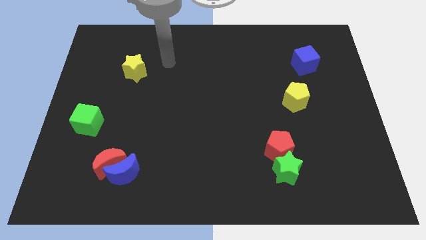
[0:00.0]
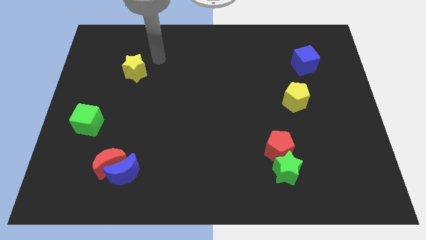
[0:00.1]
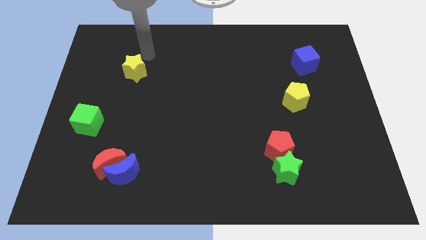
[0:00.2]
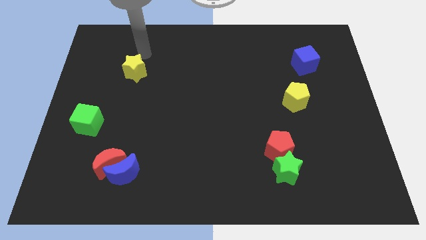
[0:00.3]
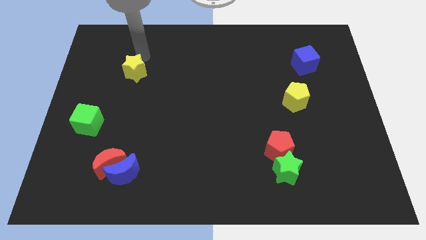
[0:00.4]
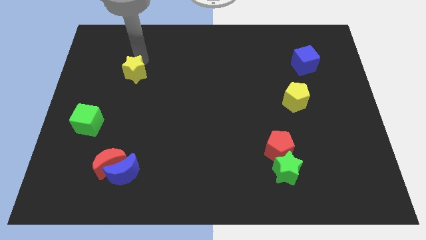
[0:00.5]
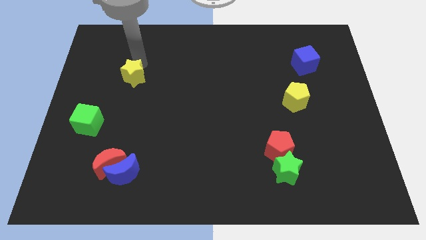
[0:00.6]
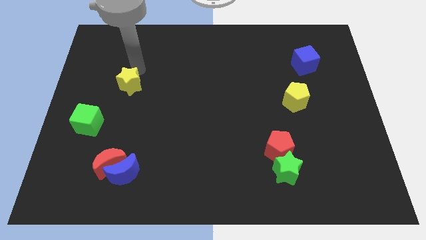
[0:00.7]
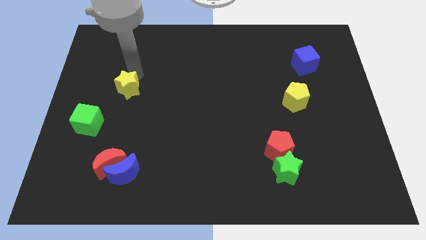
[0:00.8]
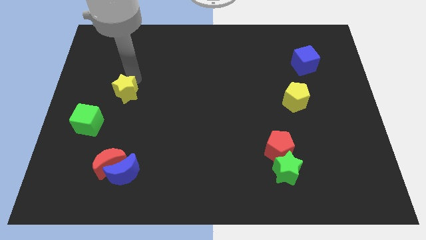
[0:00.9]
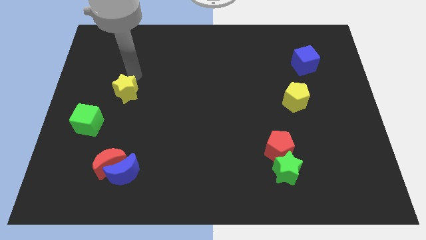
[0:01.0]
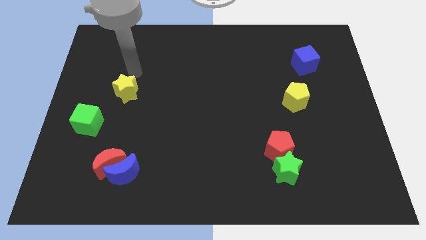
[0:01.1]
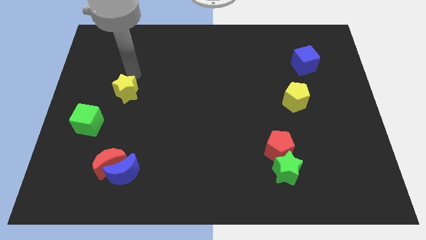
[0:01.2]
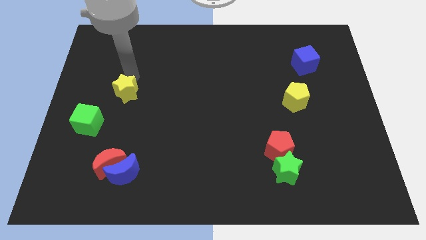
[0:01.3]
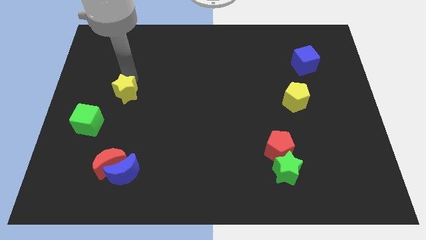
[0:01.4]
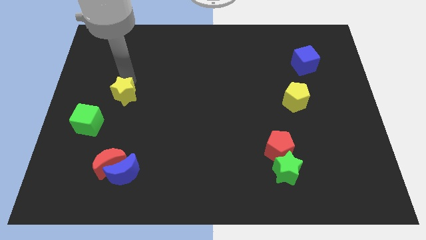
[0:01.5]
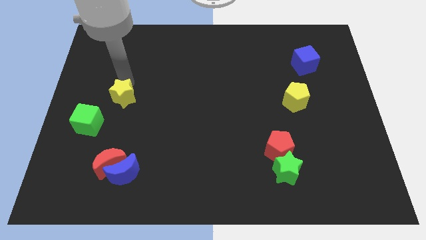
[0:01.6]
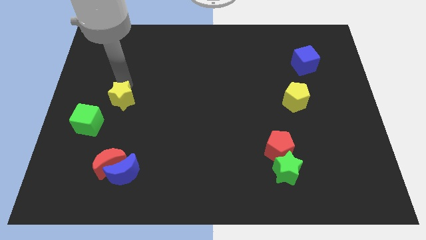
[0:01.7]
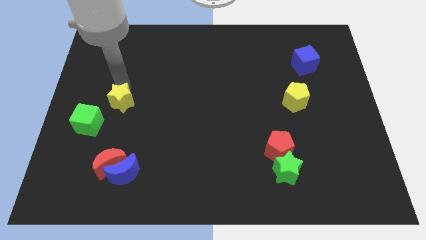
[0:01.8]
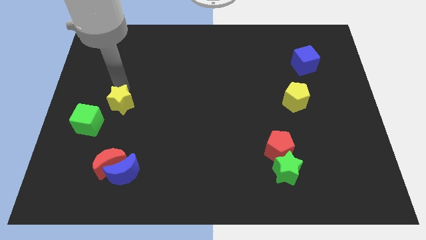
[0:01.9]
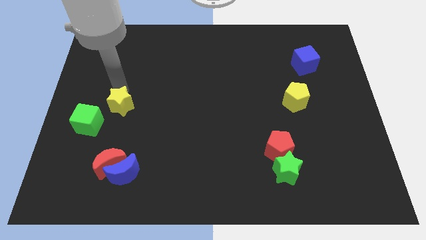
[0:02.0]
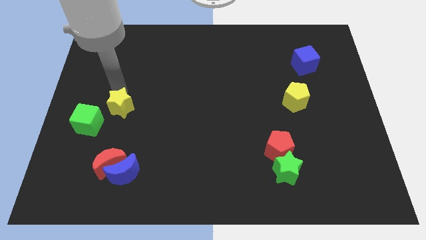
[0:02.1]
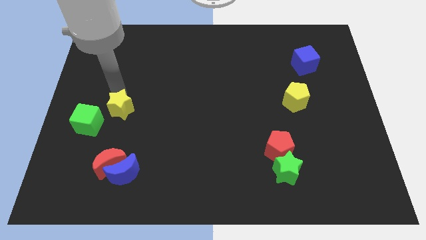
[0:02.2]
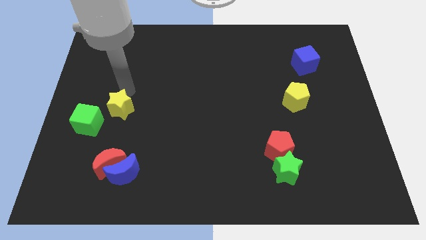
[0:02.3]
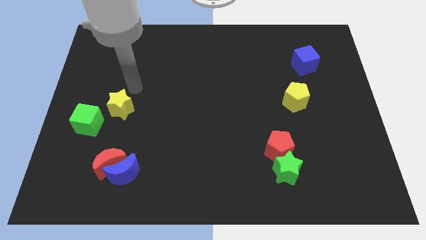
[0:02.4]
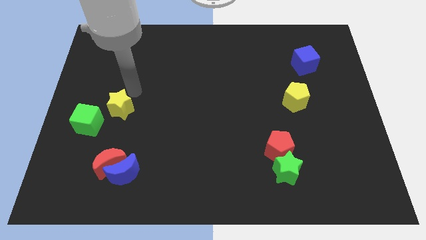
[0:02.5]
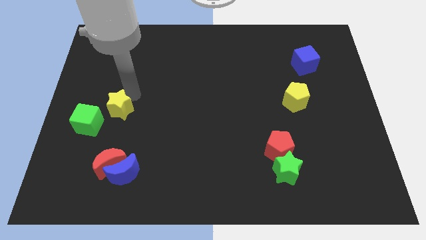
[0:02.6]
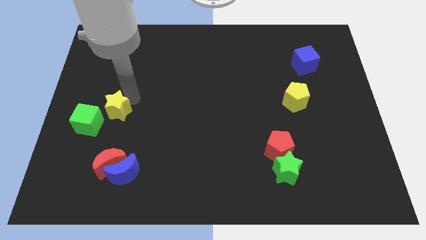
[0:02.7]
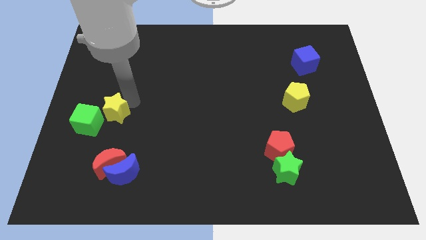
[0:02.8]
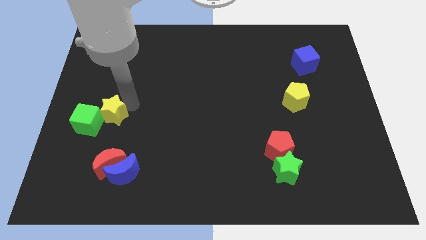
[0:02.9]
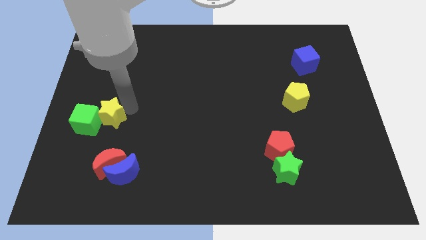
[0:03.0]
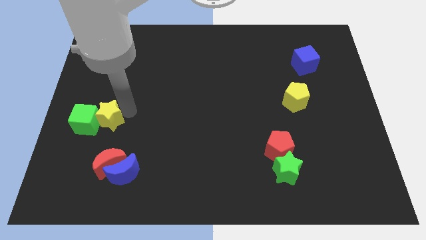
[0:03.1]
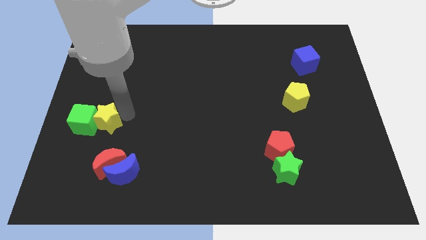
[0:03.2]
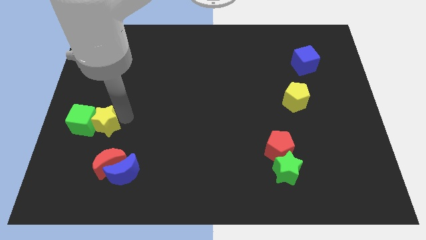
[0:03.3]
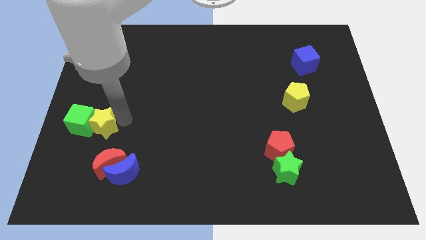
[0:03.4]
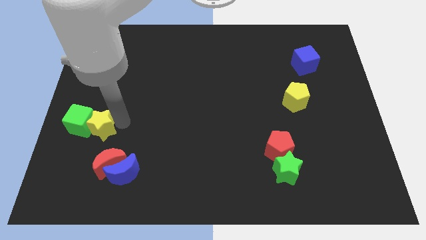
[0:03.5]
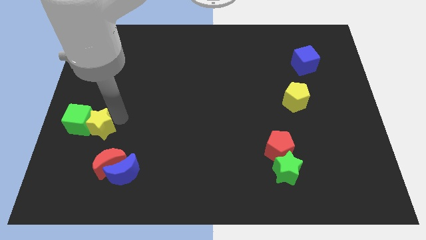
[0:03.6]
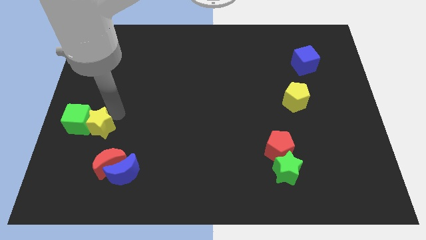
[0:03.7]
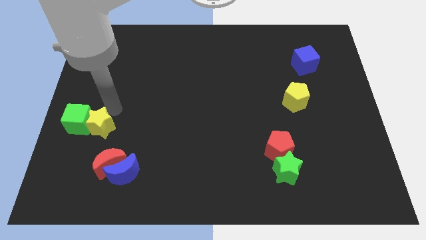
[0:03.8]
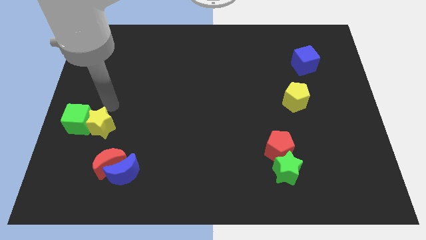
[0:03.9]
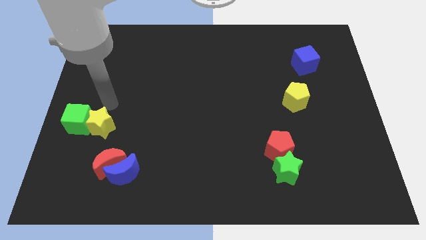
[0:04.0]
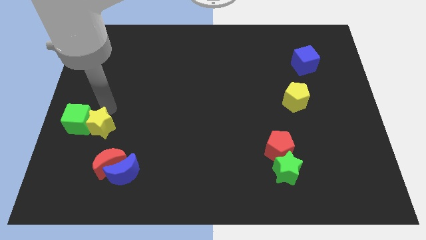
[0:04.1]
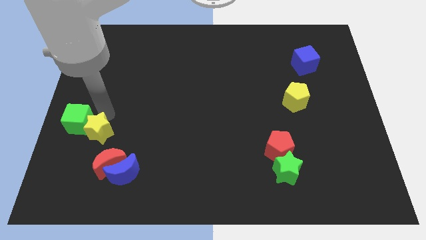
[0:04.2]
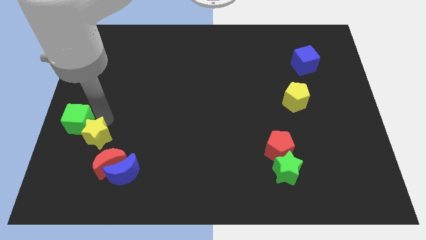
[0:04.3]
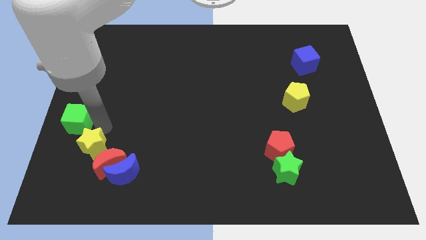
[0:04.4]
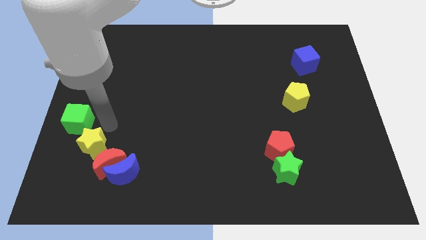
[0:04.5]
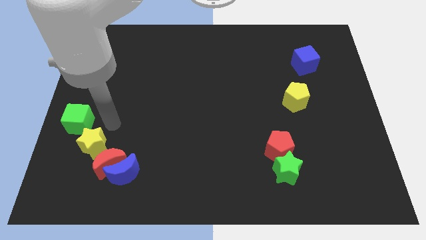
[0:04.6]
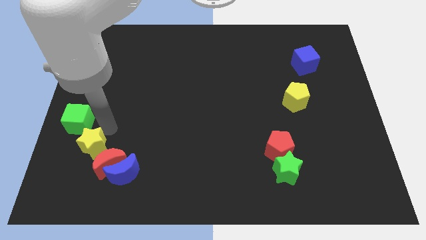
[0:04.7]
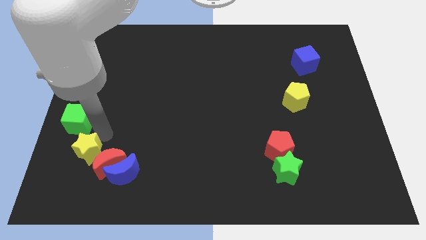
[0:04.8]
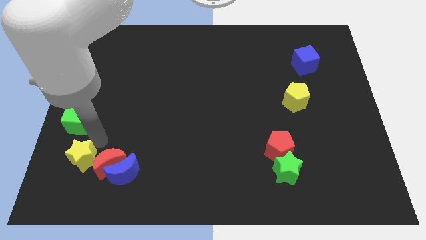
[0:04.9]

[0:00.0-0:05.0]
move the yellow star to the left side of the blue moon

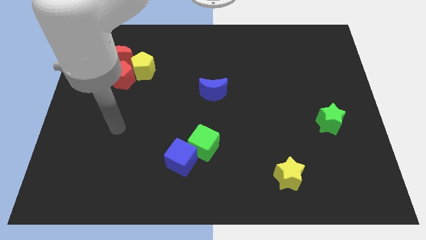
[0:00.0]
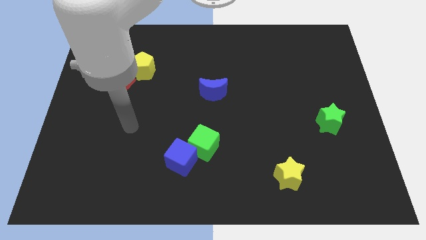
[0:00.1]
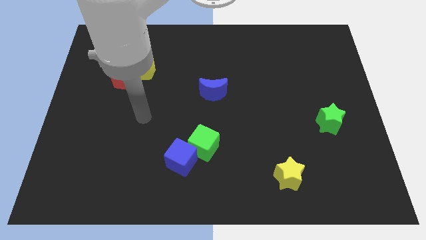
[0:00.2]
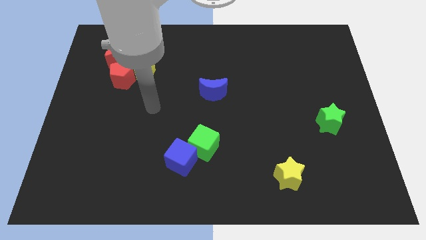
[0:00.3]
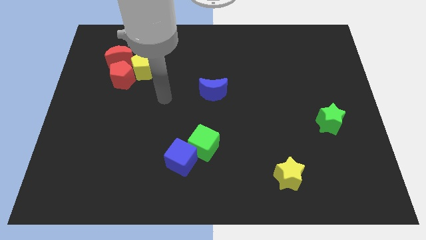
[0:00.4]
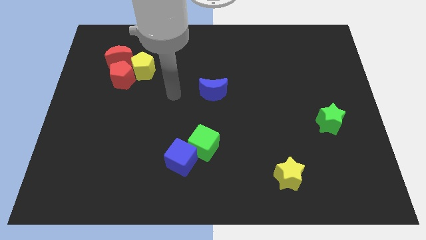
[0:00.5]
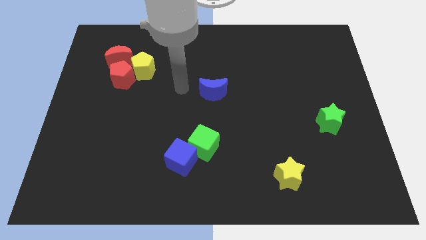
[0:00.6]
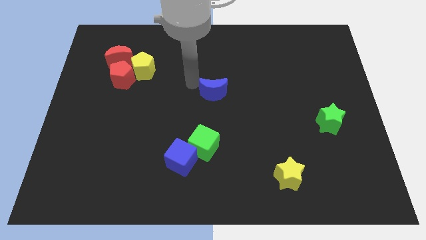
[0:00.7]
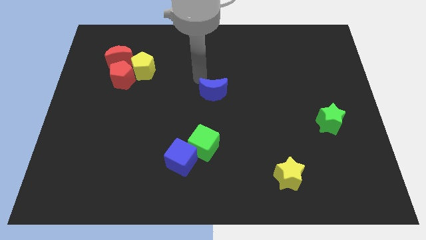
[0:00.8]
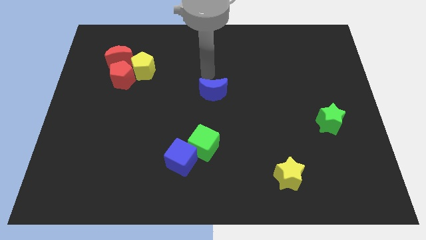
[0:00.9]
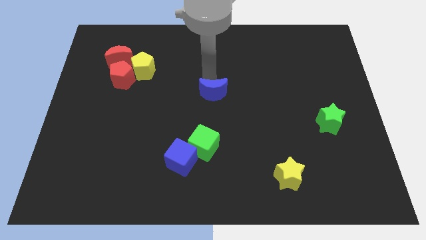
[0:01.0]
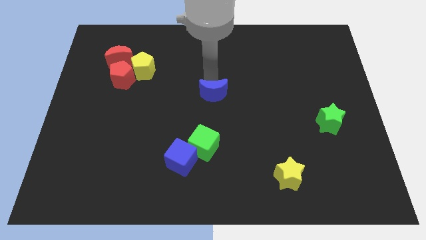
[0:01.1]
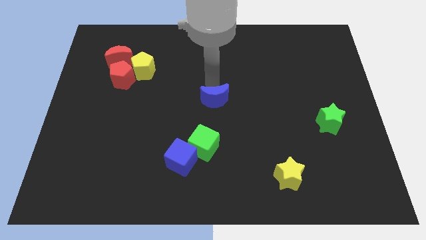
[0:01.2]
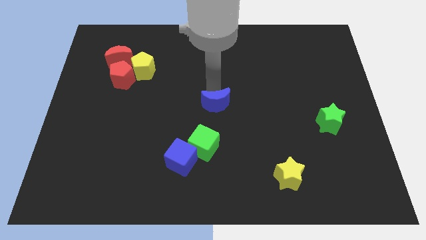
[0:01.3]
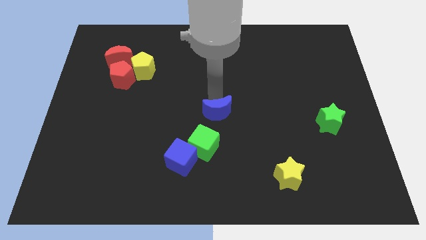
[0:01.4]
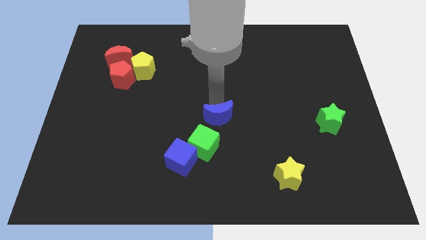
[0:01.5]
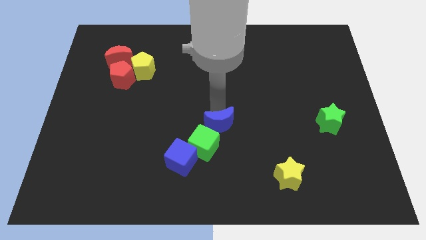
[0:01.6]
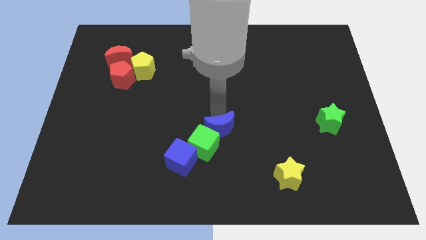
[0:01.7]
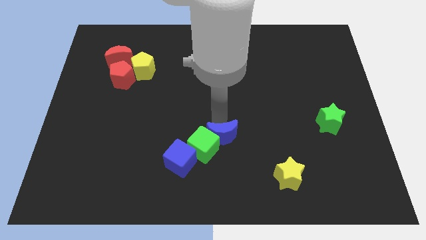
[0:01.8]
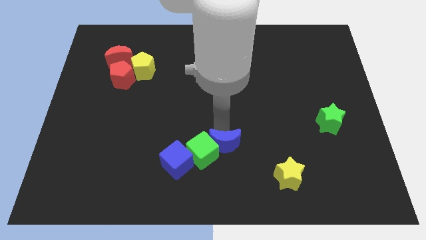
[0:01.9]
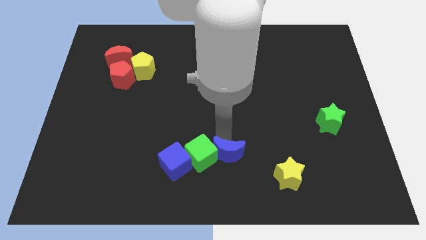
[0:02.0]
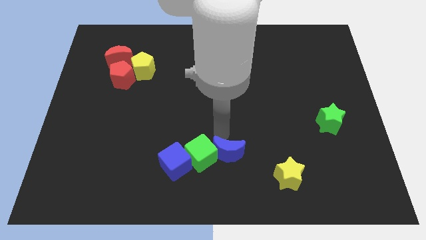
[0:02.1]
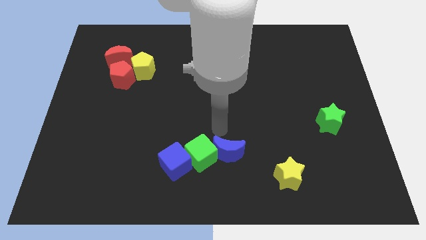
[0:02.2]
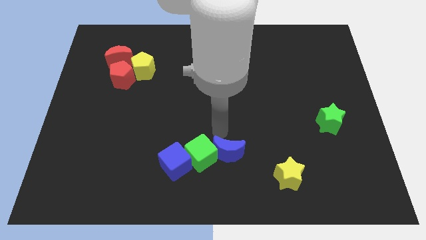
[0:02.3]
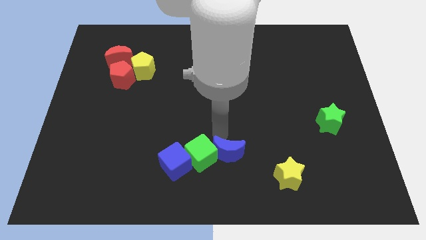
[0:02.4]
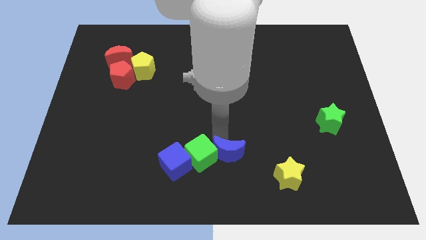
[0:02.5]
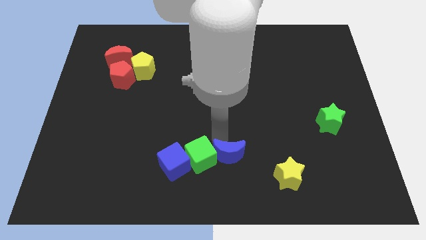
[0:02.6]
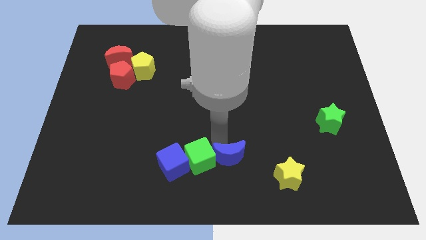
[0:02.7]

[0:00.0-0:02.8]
push the blue moon to the left of the yellow star
